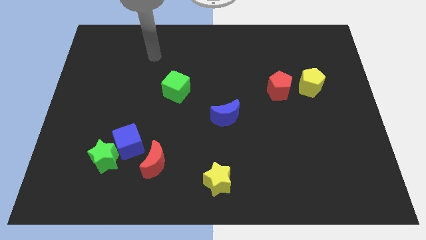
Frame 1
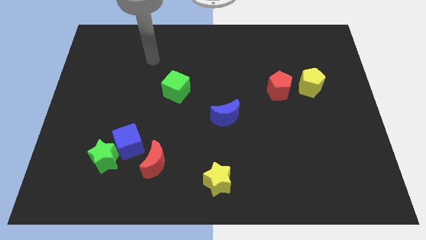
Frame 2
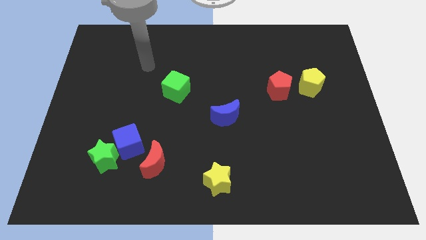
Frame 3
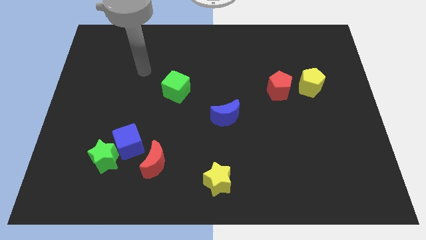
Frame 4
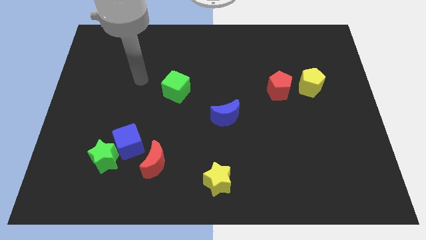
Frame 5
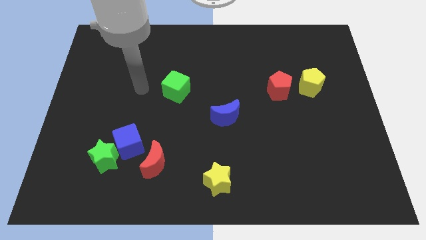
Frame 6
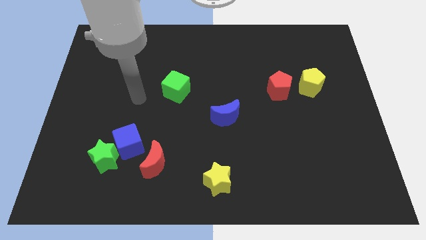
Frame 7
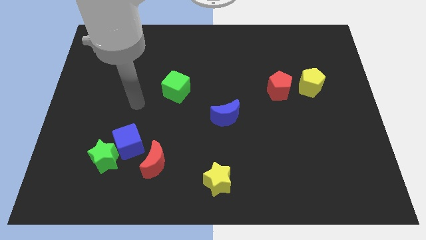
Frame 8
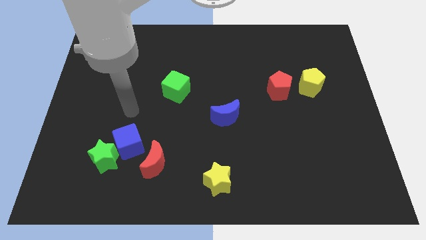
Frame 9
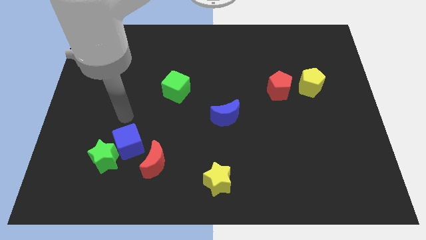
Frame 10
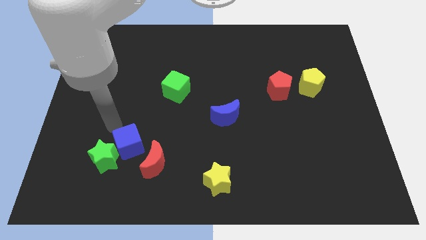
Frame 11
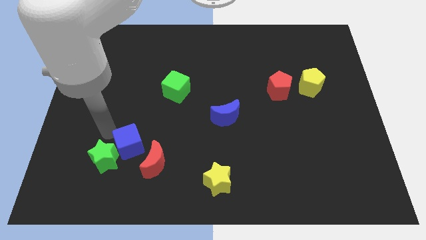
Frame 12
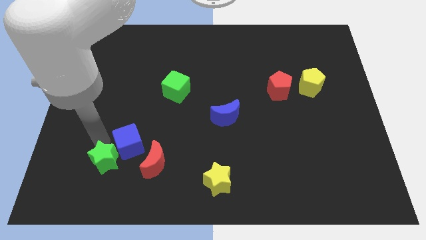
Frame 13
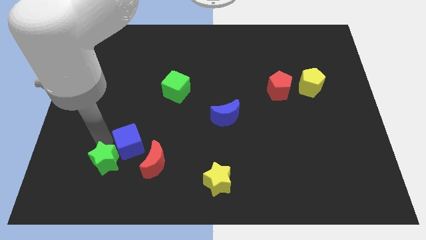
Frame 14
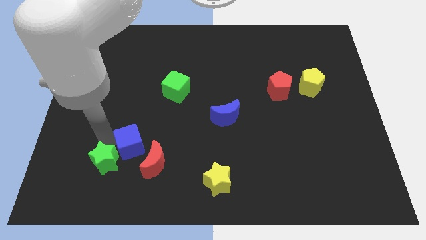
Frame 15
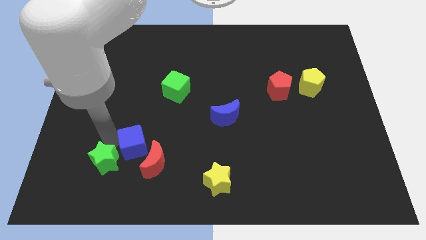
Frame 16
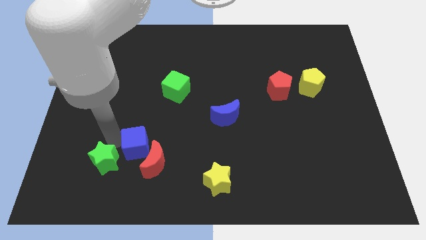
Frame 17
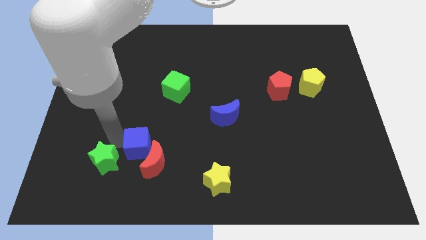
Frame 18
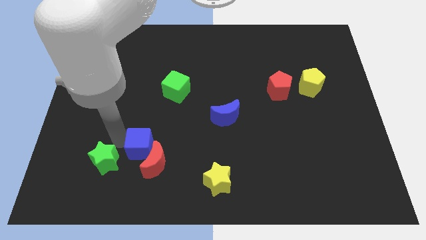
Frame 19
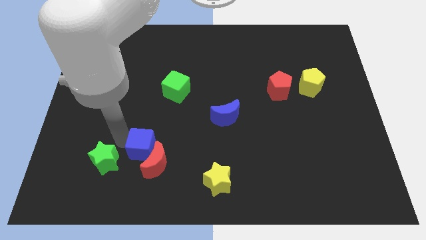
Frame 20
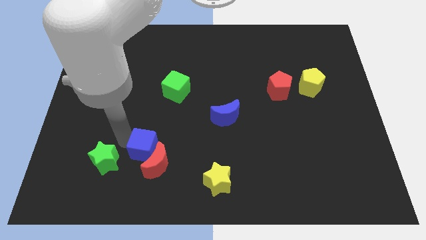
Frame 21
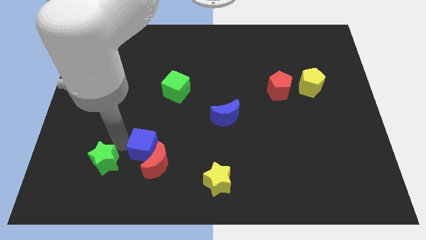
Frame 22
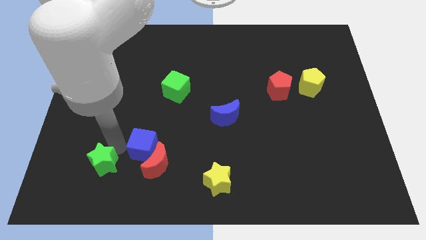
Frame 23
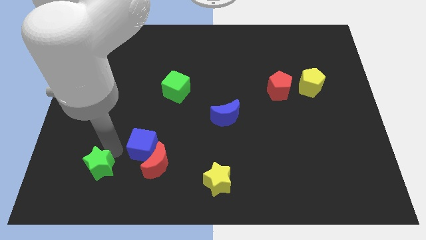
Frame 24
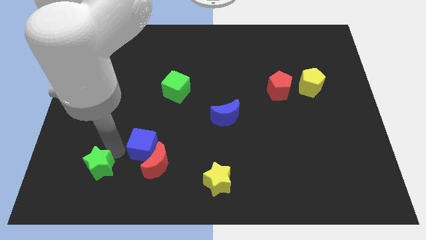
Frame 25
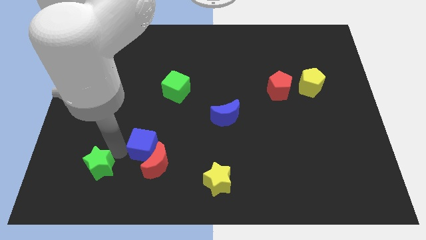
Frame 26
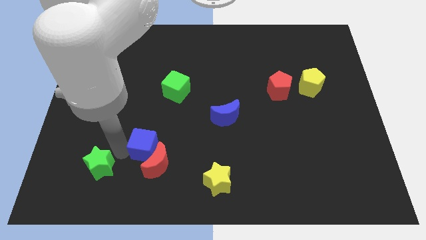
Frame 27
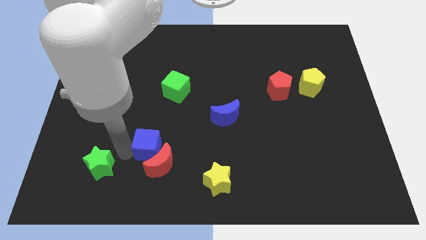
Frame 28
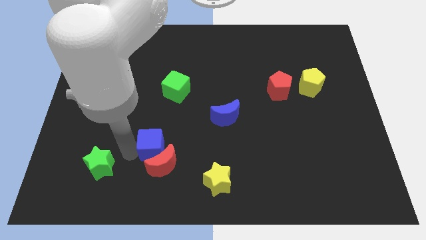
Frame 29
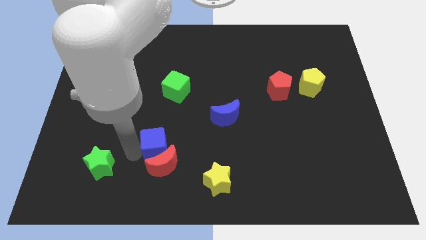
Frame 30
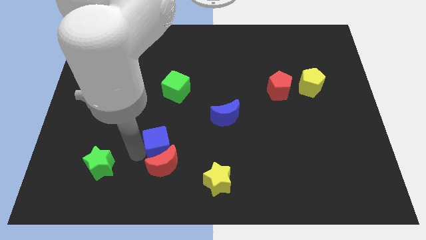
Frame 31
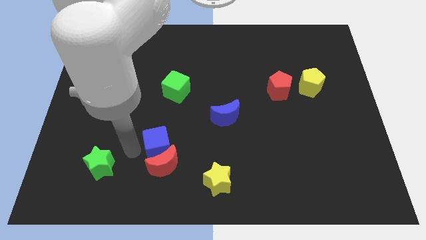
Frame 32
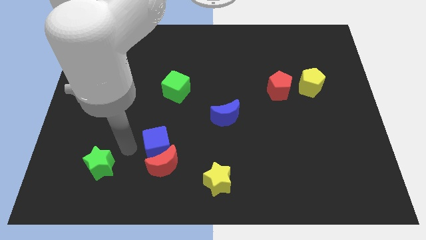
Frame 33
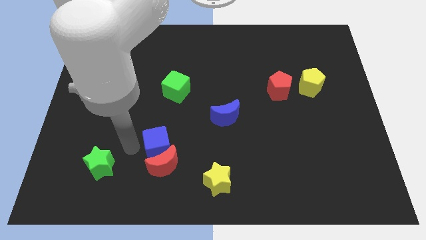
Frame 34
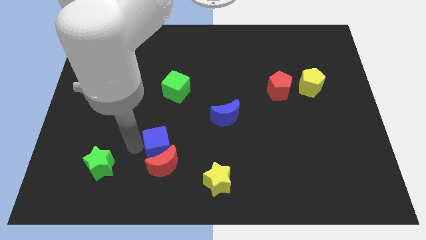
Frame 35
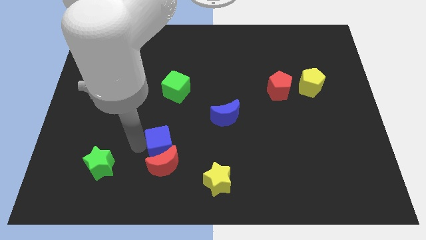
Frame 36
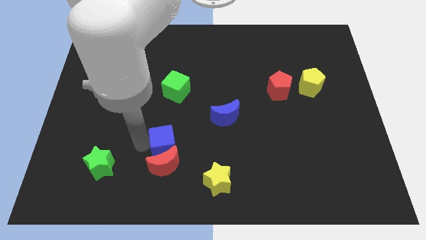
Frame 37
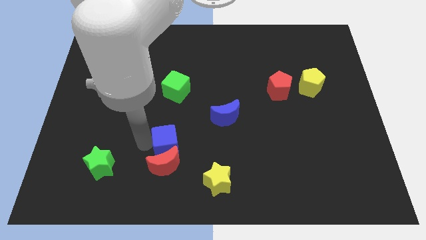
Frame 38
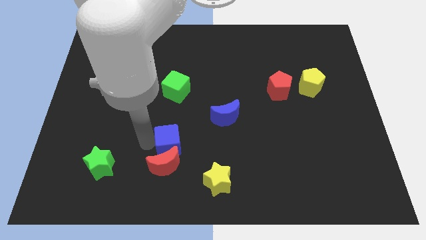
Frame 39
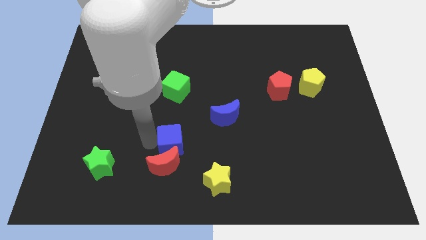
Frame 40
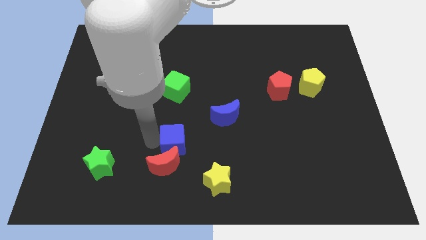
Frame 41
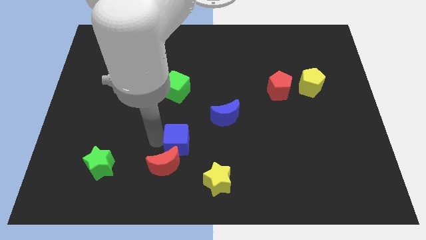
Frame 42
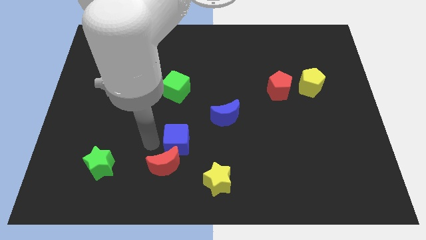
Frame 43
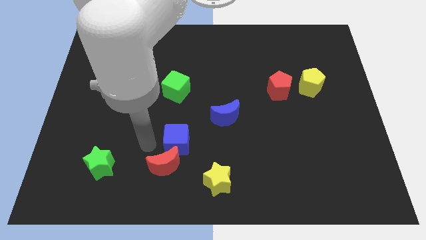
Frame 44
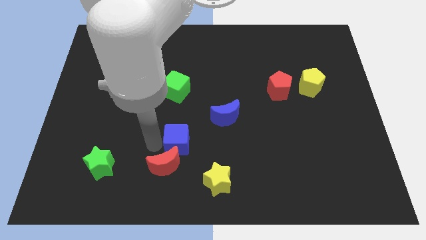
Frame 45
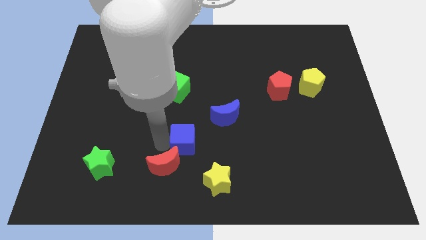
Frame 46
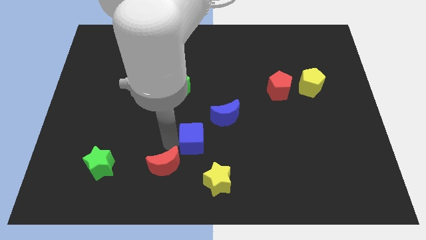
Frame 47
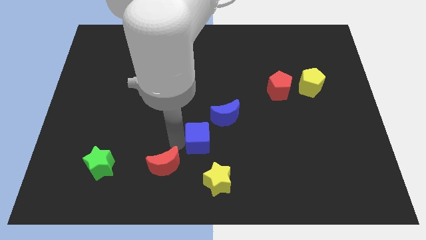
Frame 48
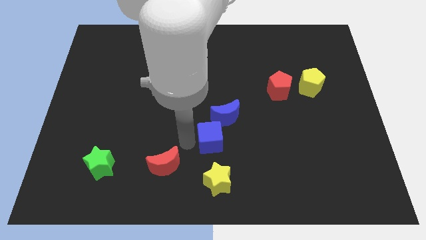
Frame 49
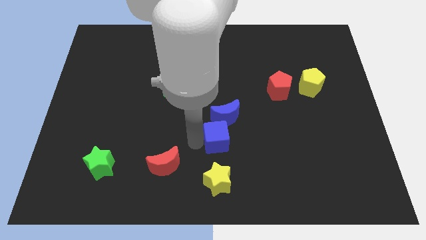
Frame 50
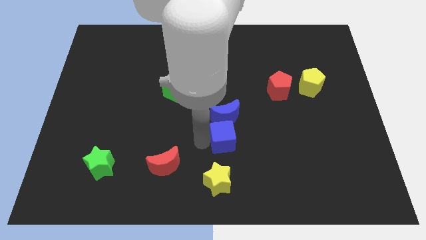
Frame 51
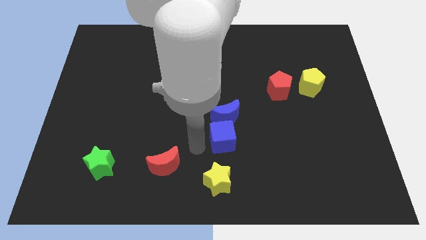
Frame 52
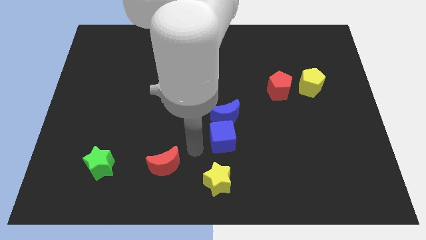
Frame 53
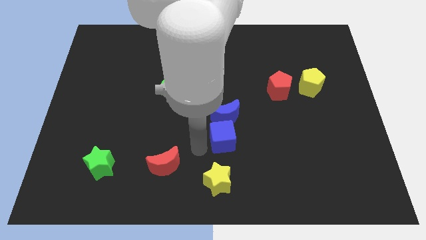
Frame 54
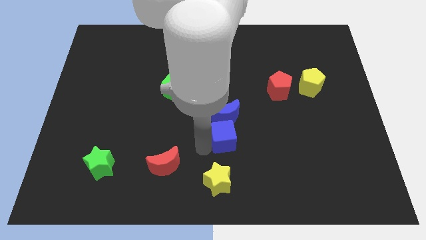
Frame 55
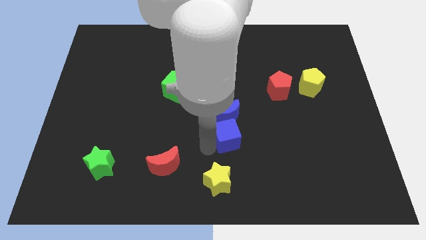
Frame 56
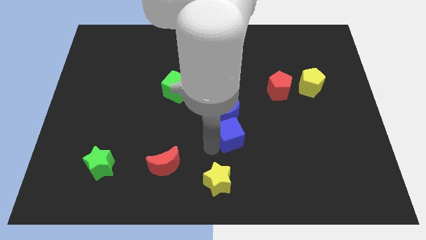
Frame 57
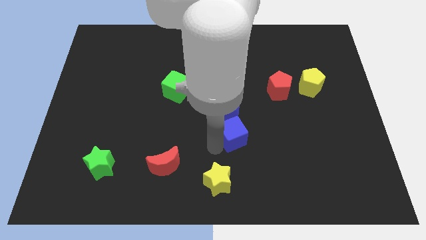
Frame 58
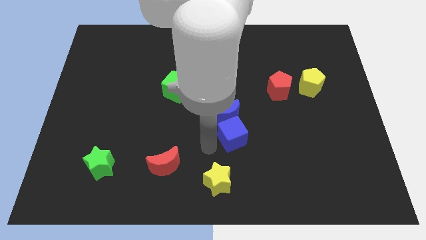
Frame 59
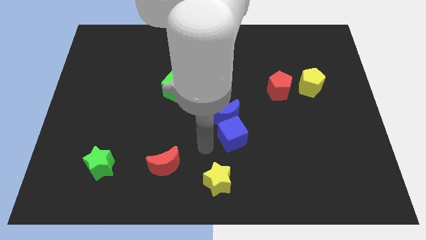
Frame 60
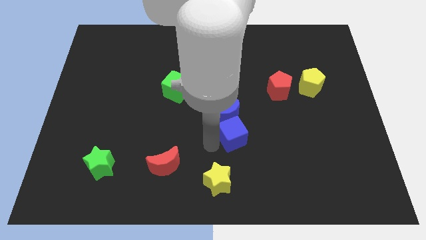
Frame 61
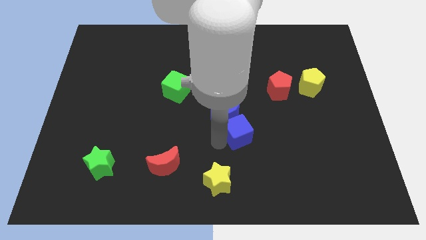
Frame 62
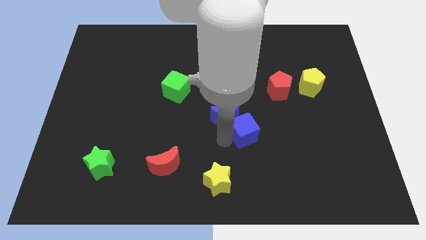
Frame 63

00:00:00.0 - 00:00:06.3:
put the blue cube to the right side of the blue moon

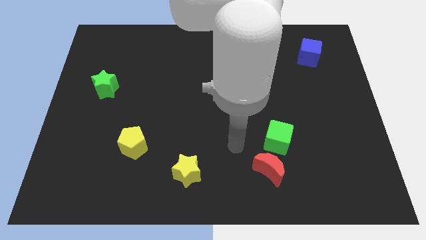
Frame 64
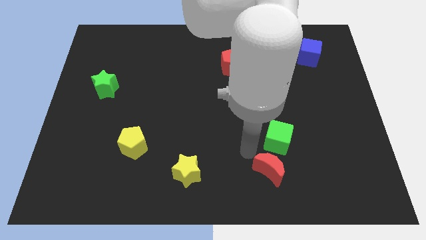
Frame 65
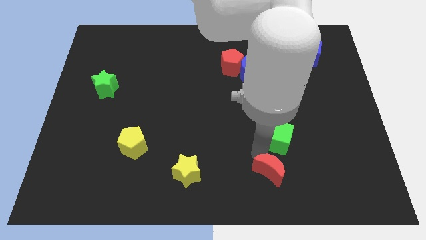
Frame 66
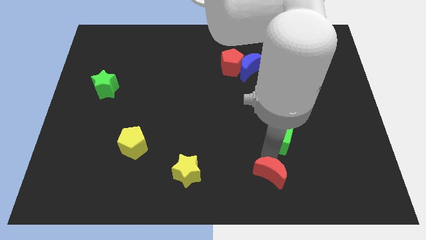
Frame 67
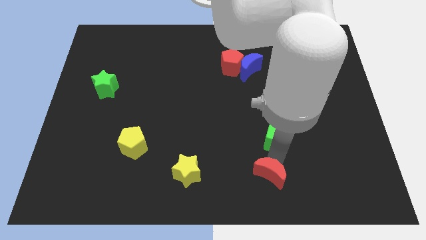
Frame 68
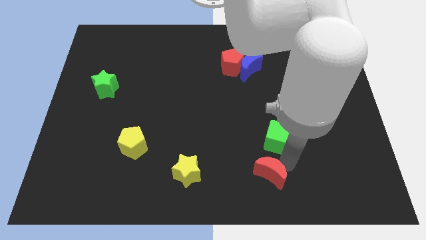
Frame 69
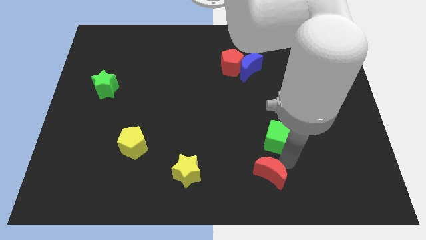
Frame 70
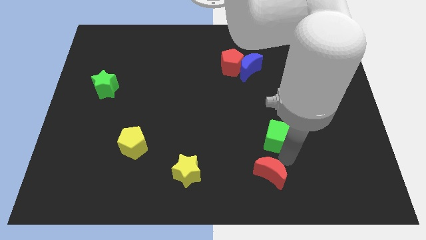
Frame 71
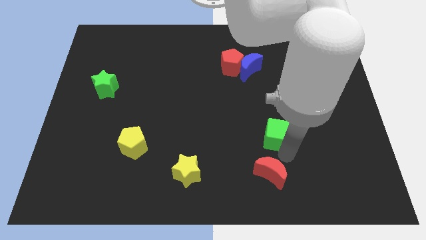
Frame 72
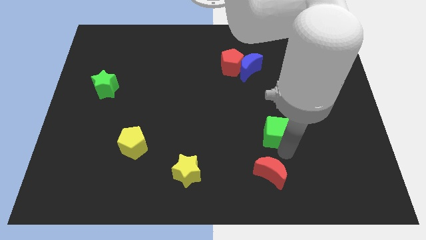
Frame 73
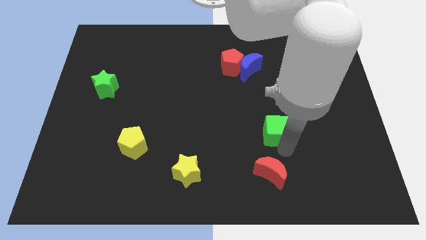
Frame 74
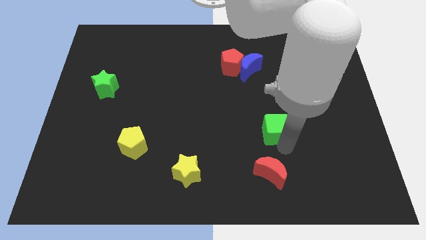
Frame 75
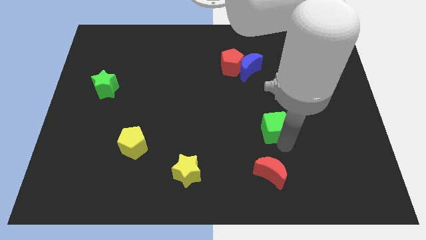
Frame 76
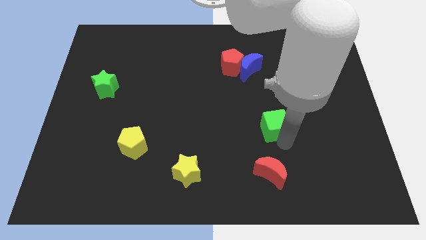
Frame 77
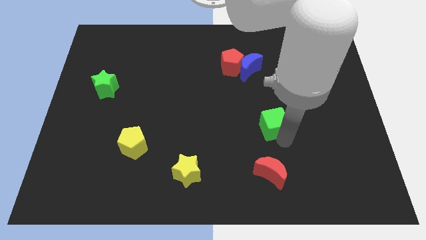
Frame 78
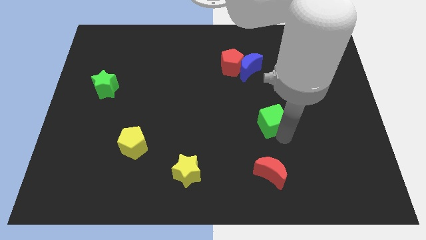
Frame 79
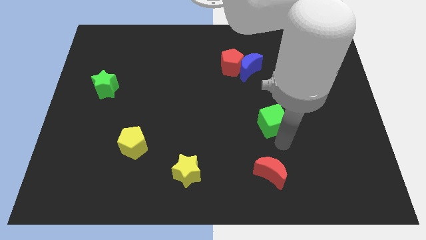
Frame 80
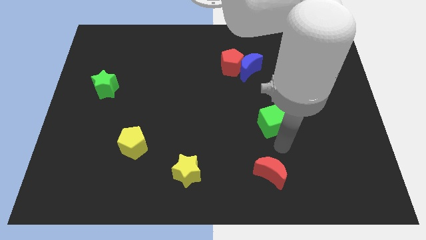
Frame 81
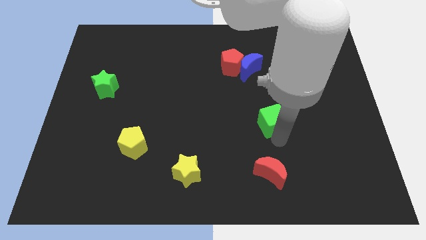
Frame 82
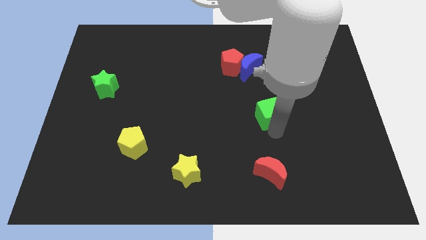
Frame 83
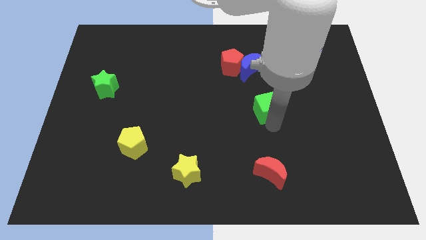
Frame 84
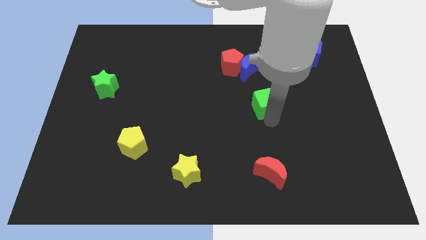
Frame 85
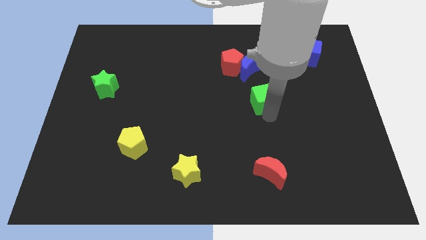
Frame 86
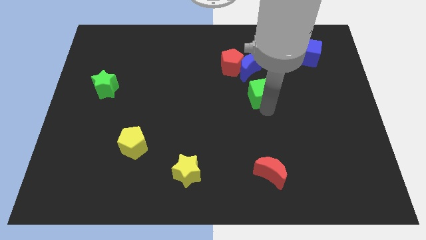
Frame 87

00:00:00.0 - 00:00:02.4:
push the green cube diagonally down and to the right of the red pentagon

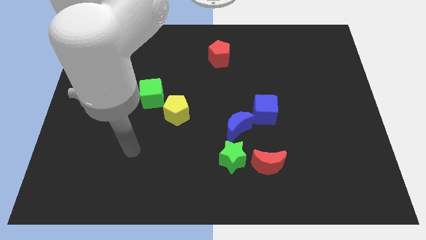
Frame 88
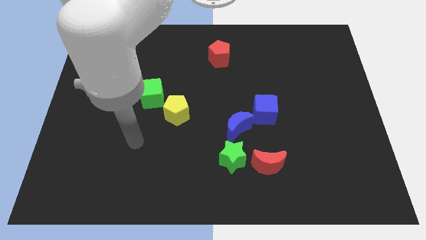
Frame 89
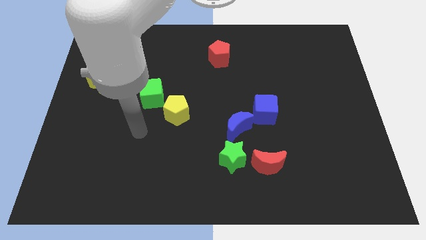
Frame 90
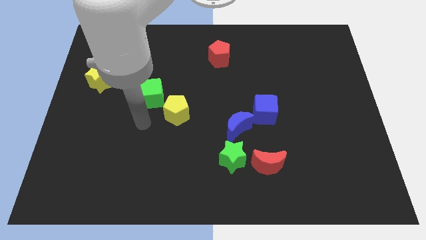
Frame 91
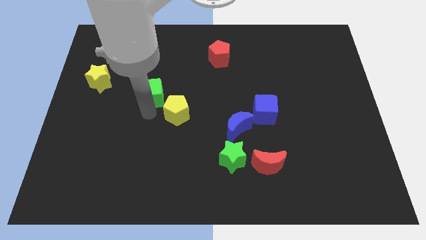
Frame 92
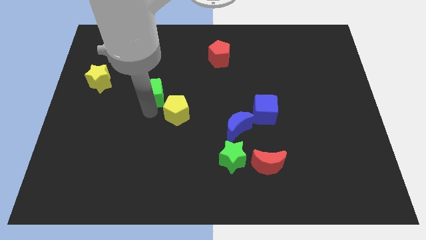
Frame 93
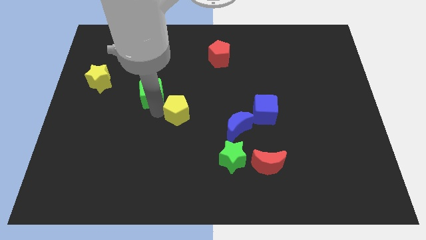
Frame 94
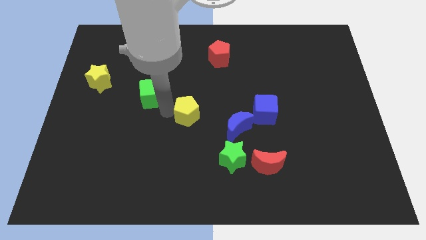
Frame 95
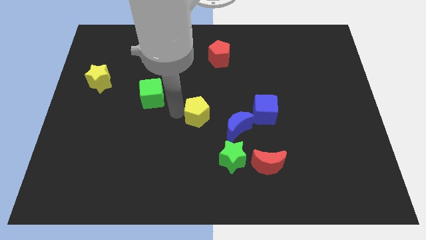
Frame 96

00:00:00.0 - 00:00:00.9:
put the yellow pentagon to the left side of the blue cube
